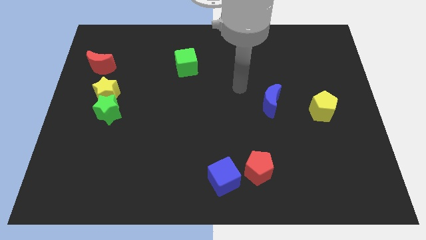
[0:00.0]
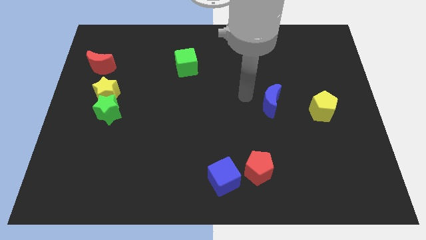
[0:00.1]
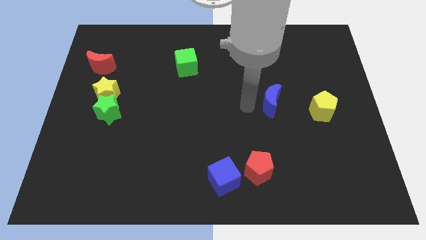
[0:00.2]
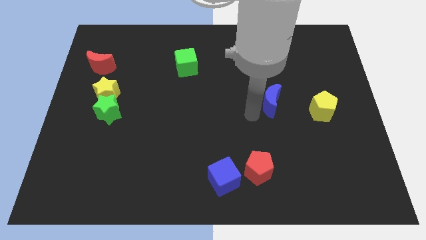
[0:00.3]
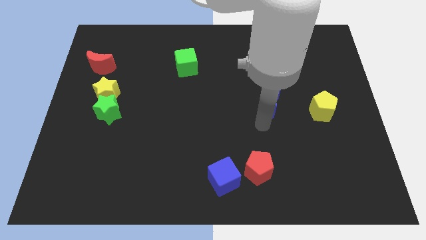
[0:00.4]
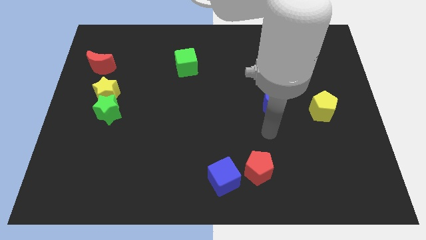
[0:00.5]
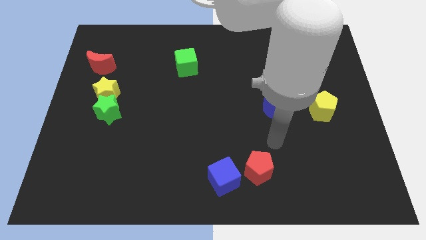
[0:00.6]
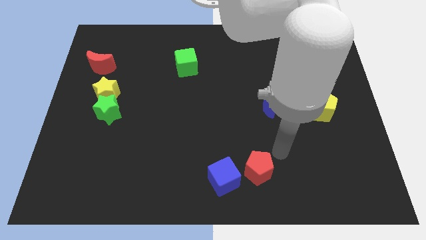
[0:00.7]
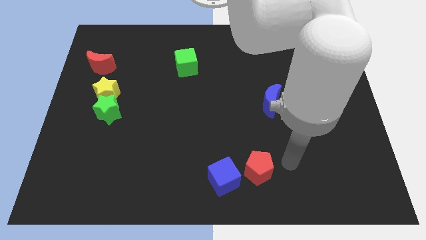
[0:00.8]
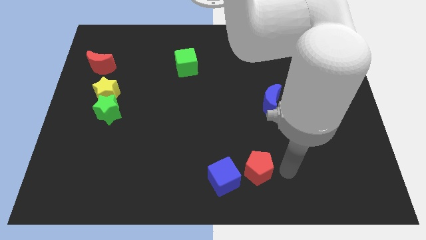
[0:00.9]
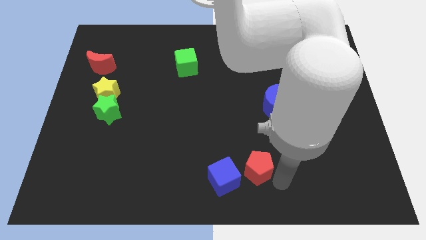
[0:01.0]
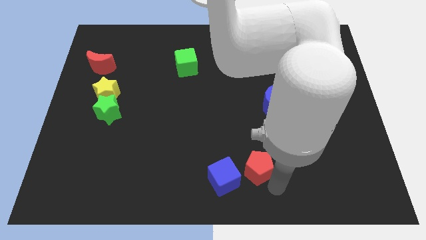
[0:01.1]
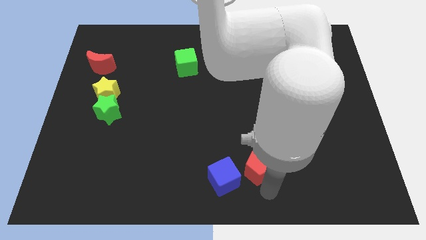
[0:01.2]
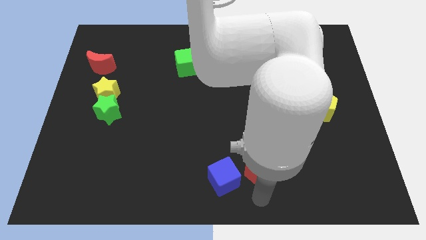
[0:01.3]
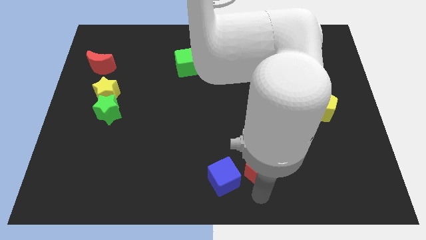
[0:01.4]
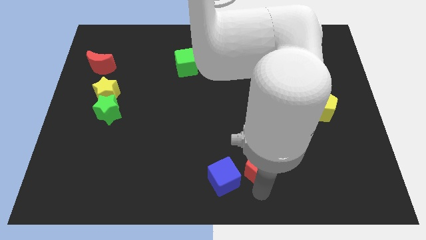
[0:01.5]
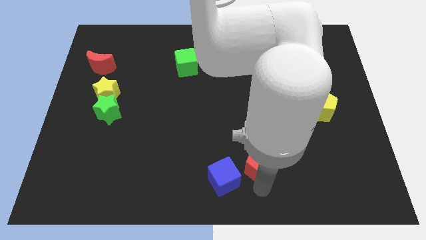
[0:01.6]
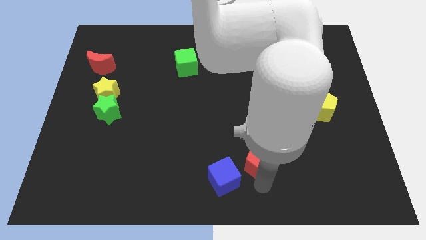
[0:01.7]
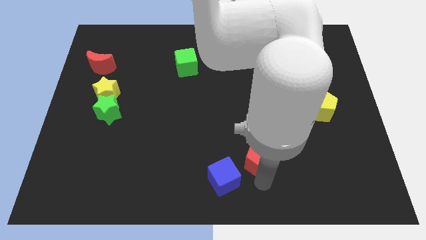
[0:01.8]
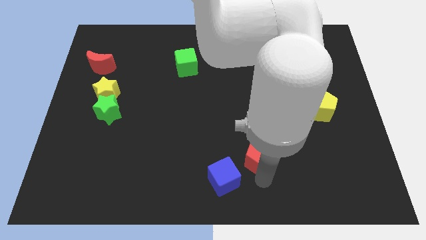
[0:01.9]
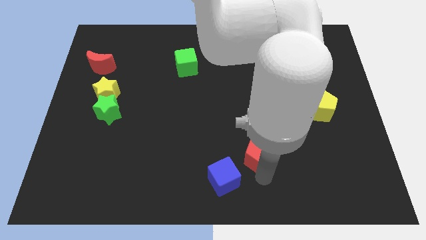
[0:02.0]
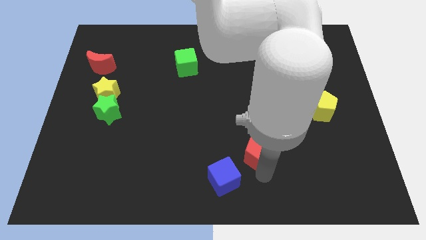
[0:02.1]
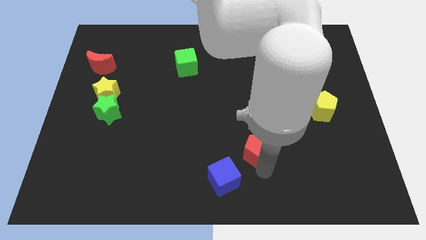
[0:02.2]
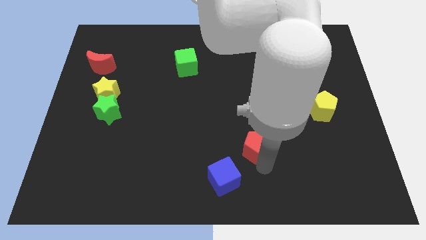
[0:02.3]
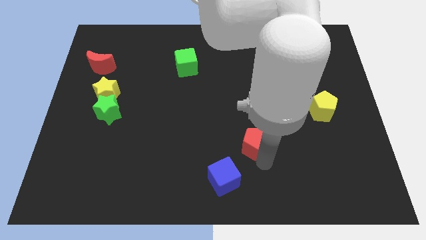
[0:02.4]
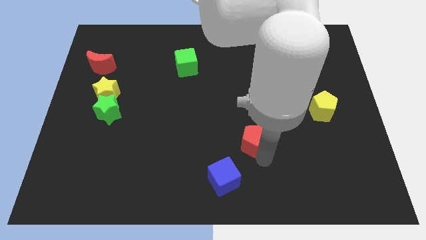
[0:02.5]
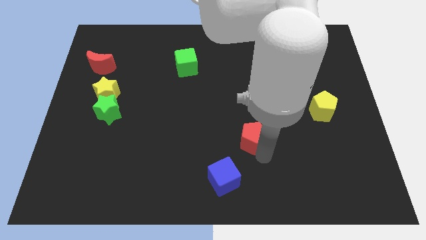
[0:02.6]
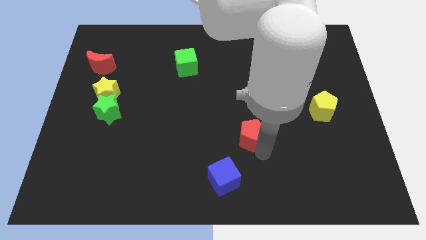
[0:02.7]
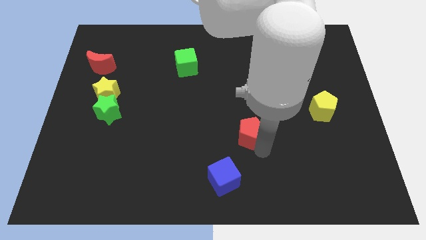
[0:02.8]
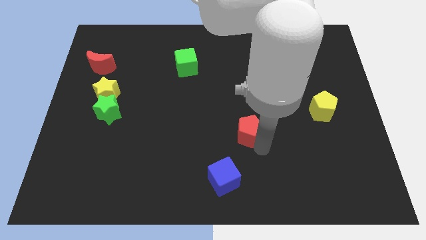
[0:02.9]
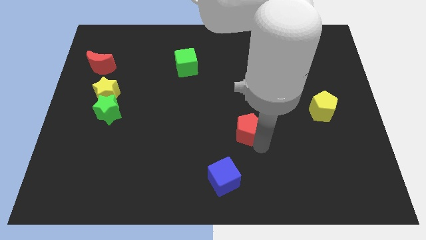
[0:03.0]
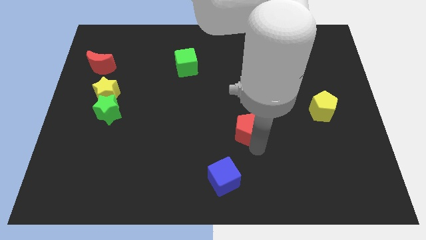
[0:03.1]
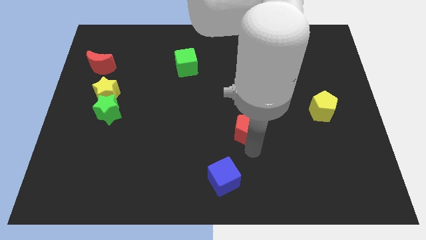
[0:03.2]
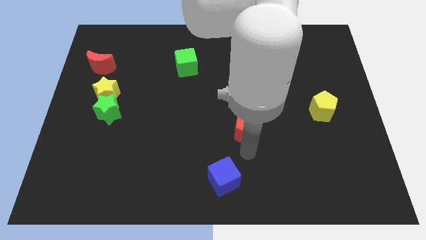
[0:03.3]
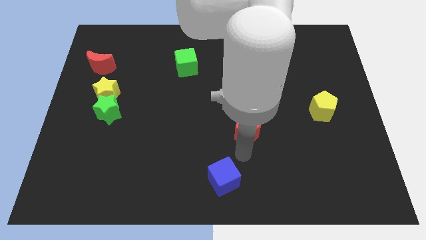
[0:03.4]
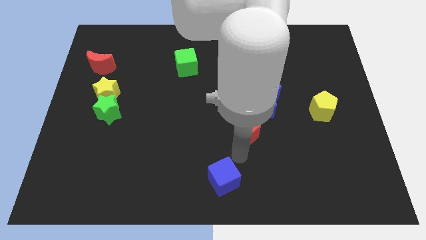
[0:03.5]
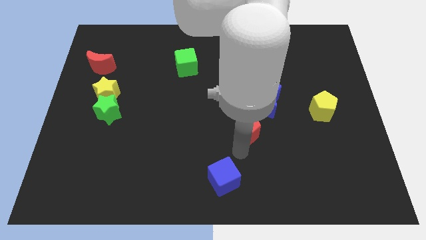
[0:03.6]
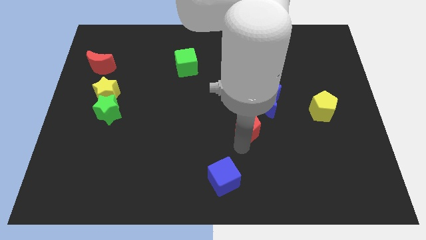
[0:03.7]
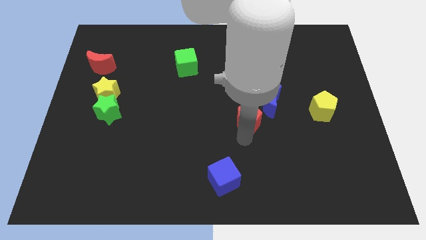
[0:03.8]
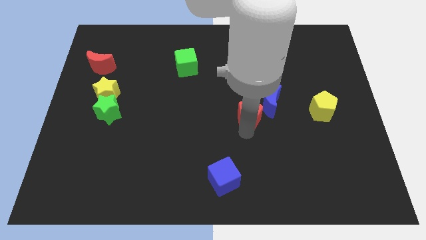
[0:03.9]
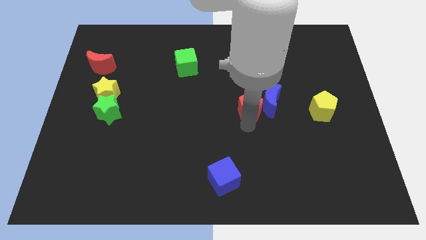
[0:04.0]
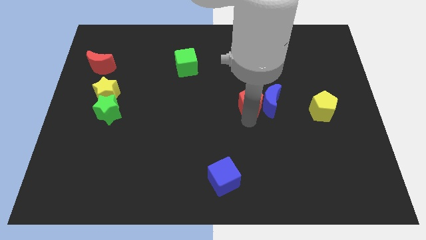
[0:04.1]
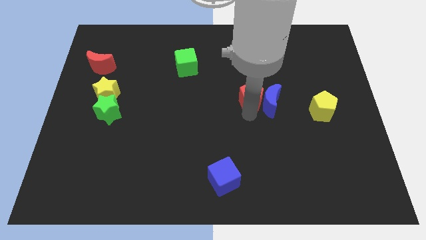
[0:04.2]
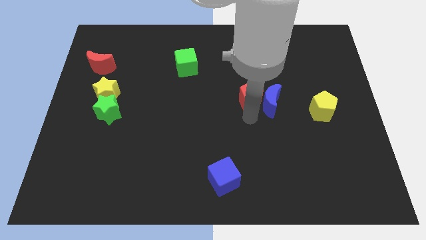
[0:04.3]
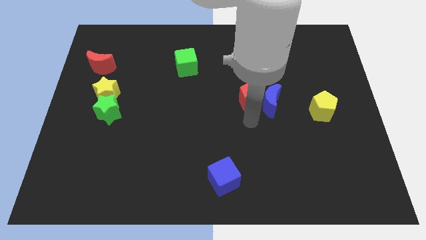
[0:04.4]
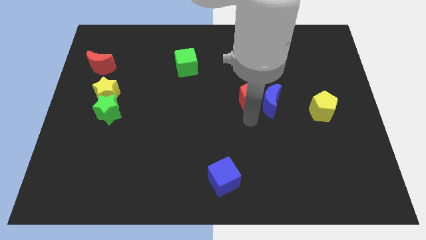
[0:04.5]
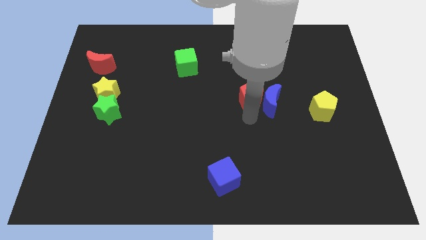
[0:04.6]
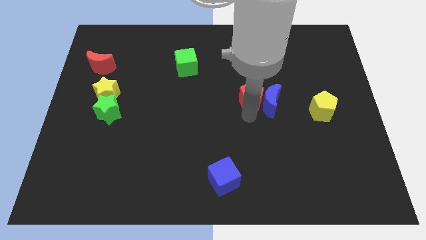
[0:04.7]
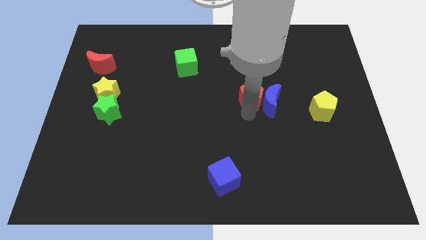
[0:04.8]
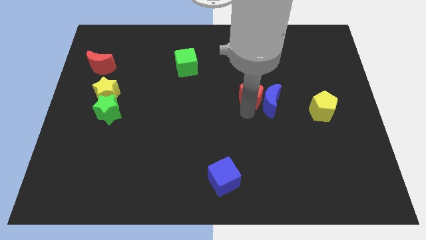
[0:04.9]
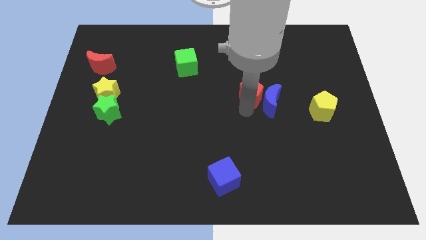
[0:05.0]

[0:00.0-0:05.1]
slide the red pentagon up

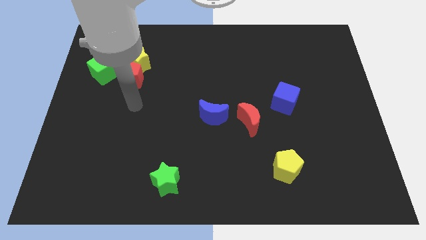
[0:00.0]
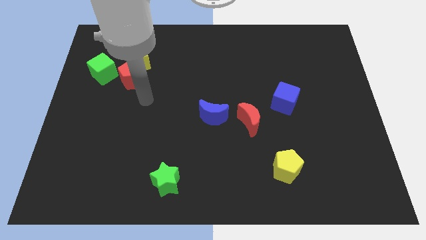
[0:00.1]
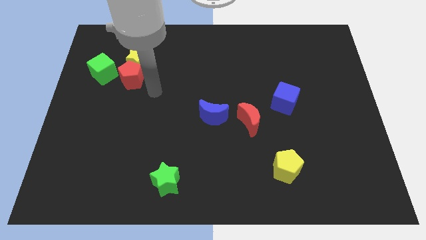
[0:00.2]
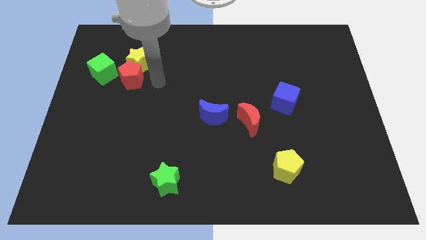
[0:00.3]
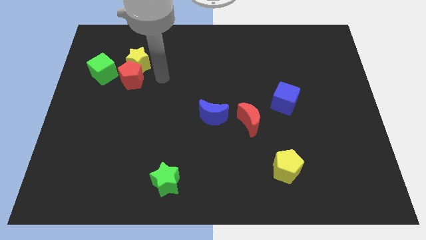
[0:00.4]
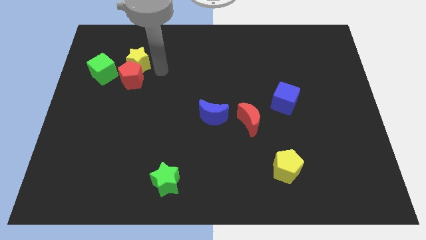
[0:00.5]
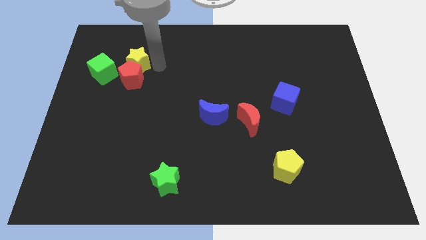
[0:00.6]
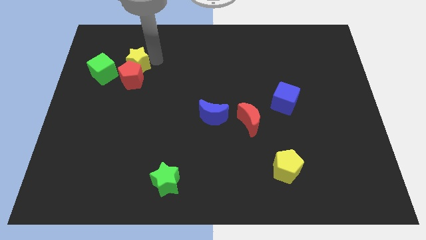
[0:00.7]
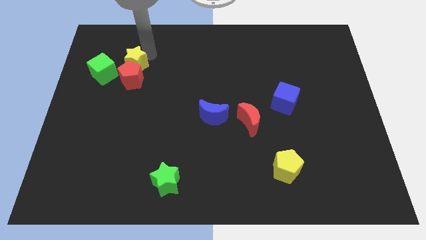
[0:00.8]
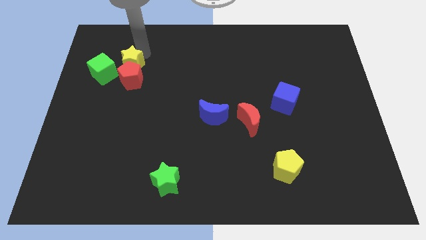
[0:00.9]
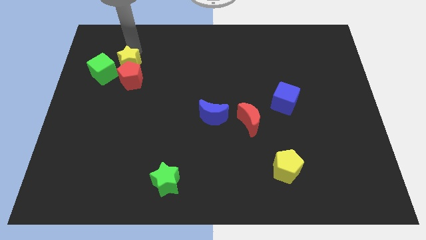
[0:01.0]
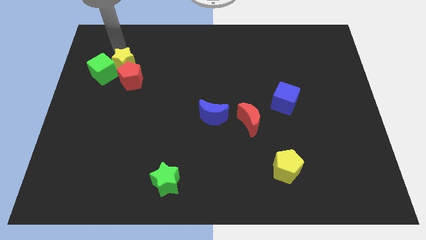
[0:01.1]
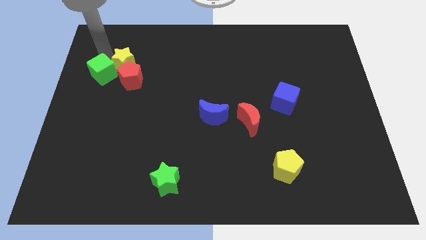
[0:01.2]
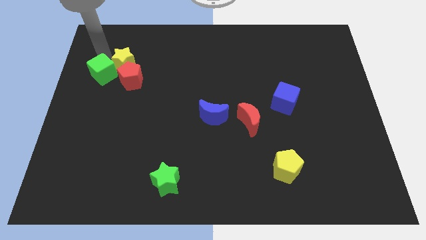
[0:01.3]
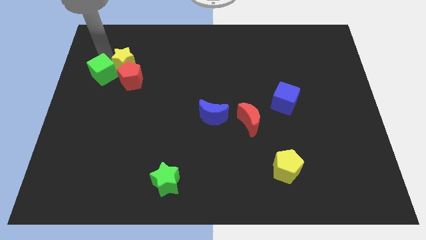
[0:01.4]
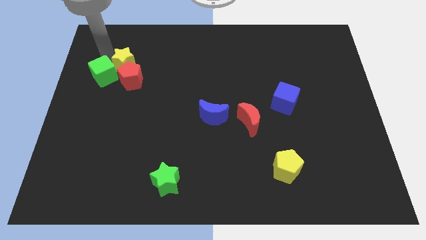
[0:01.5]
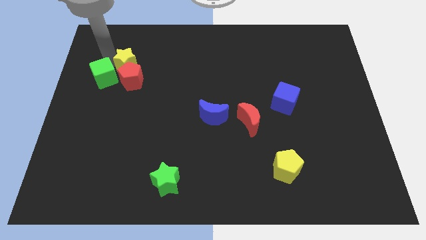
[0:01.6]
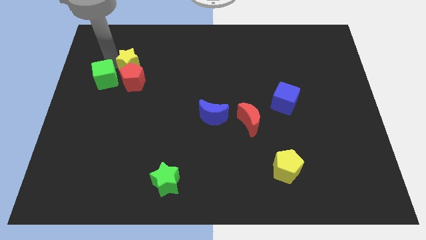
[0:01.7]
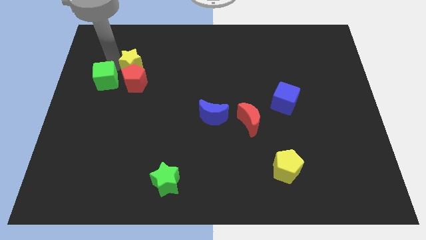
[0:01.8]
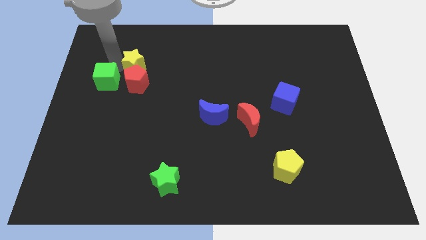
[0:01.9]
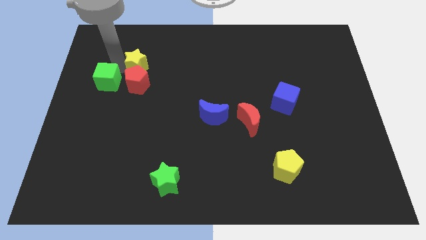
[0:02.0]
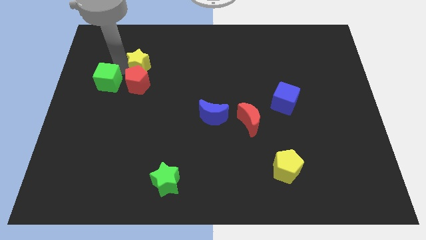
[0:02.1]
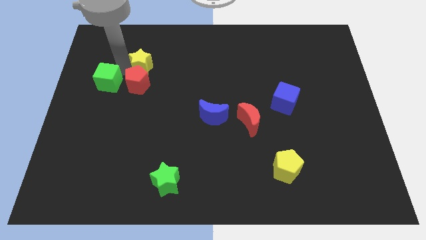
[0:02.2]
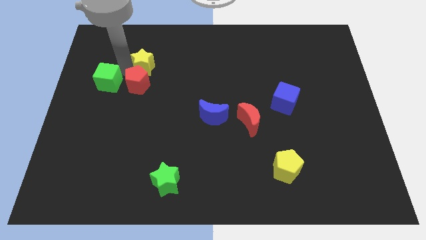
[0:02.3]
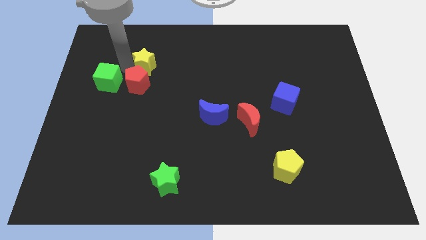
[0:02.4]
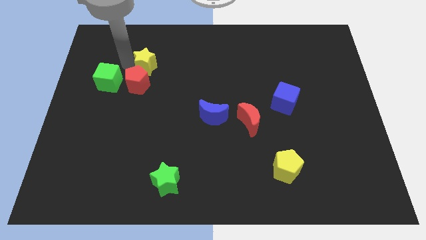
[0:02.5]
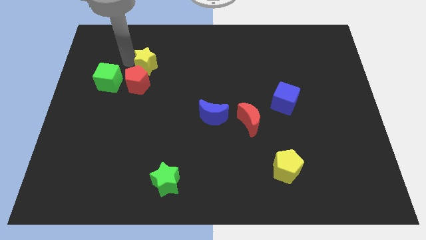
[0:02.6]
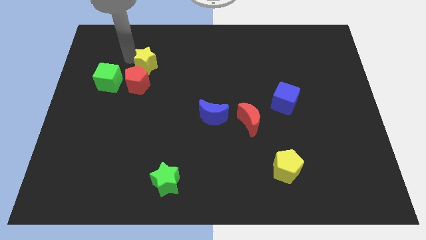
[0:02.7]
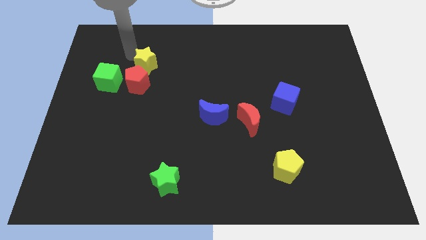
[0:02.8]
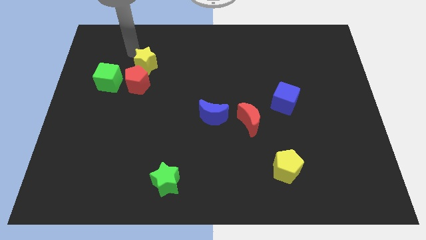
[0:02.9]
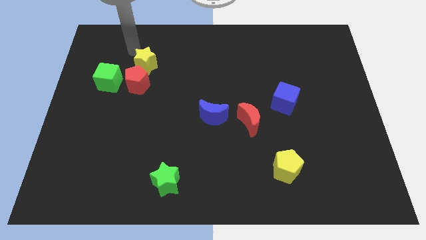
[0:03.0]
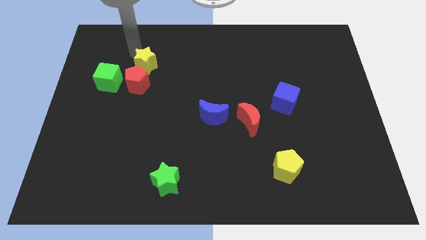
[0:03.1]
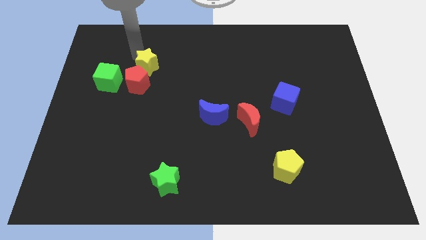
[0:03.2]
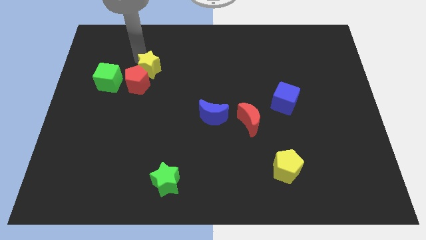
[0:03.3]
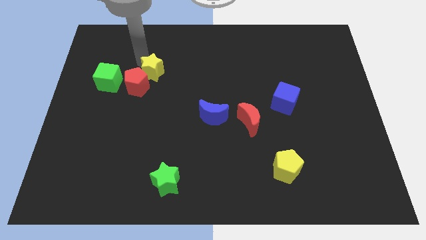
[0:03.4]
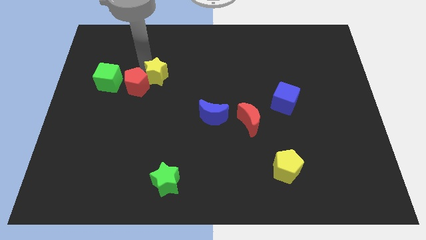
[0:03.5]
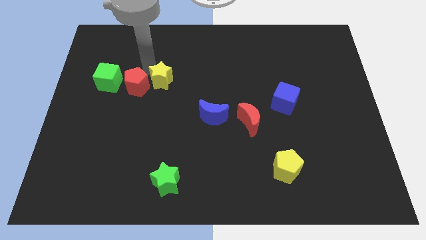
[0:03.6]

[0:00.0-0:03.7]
slightly push the yellow star down and to the right diagonally
